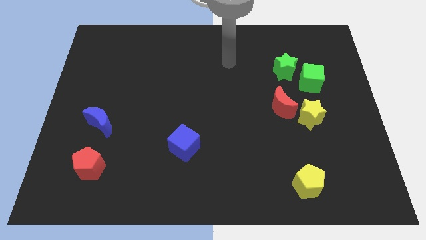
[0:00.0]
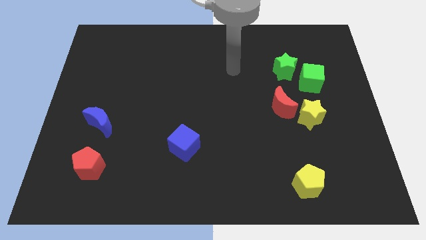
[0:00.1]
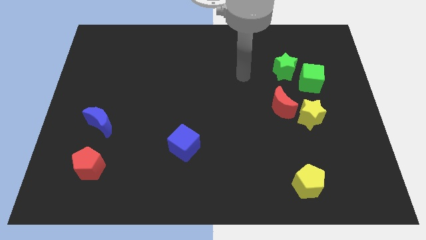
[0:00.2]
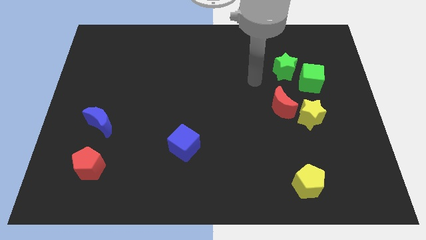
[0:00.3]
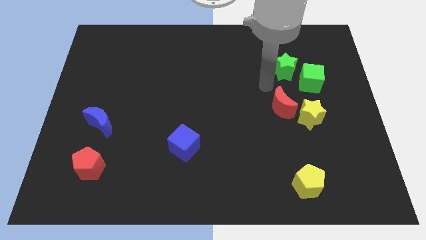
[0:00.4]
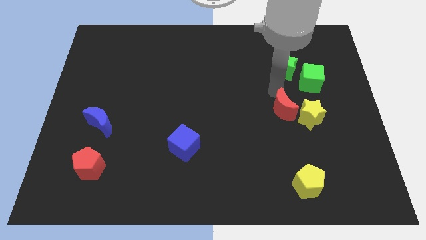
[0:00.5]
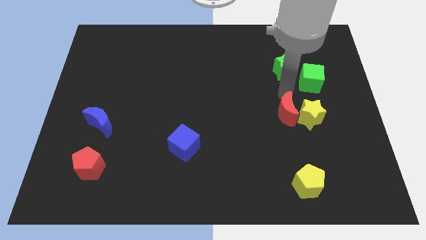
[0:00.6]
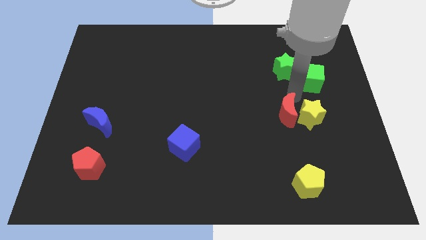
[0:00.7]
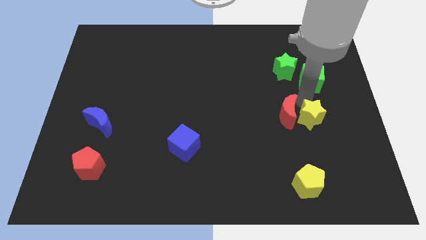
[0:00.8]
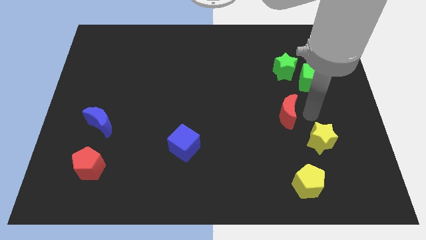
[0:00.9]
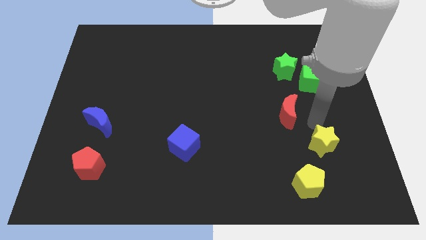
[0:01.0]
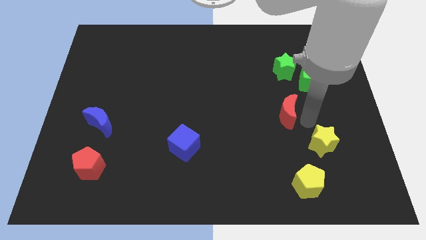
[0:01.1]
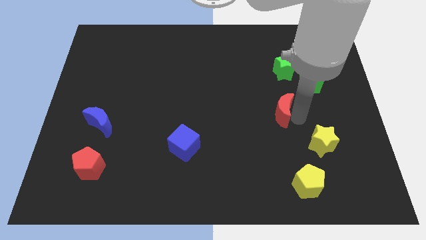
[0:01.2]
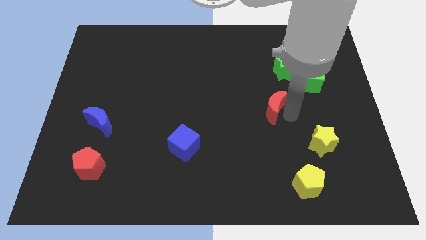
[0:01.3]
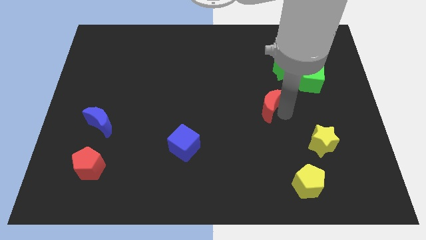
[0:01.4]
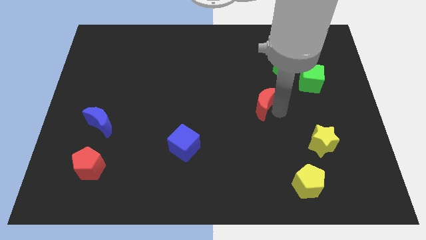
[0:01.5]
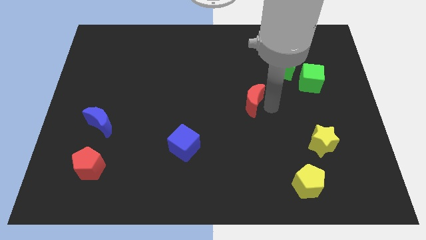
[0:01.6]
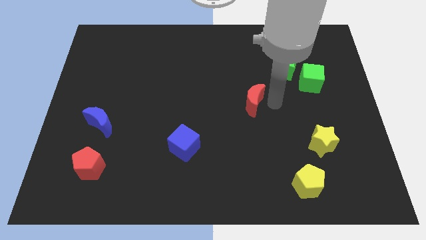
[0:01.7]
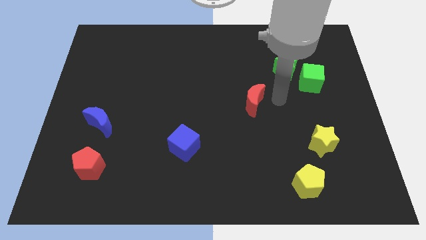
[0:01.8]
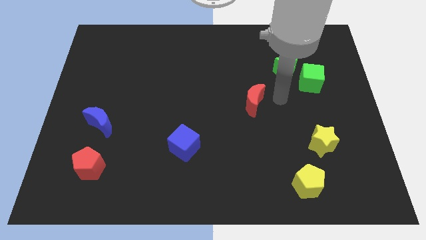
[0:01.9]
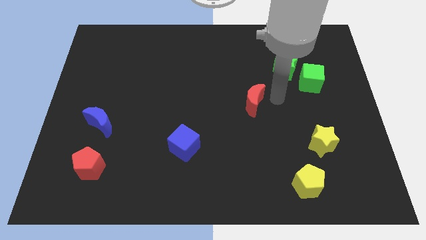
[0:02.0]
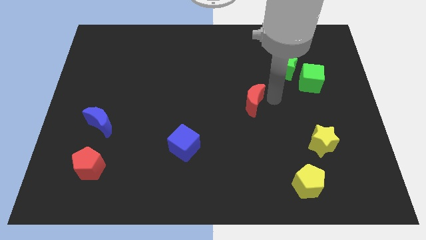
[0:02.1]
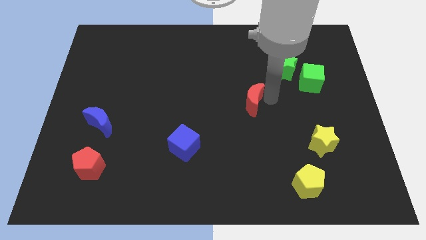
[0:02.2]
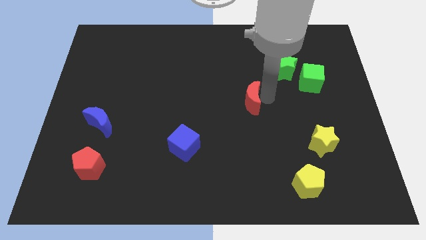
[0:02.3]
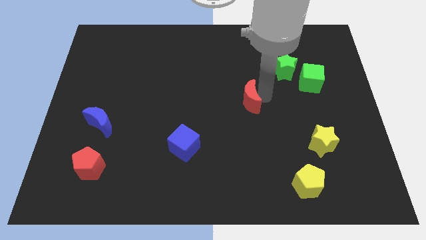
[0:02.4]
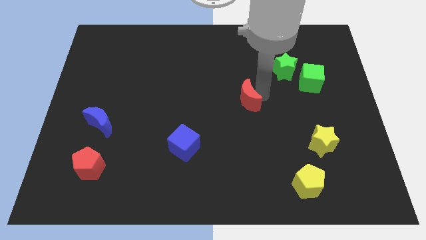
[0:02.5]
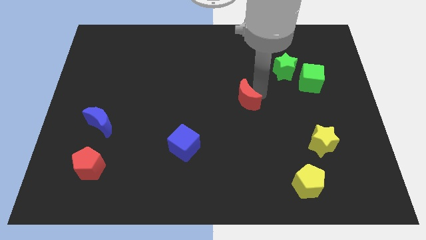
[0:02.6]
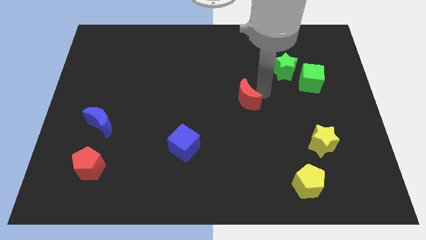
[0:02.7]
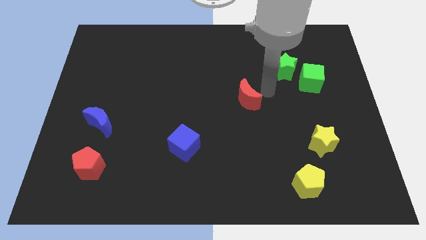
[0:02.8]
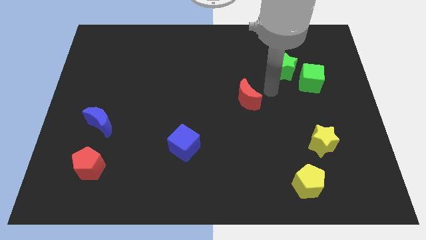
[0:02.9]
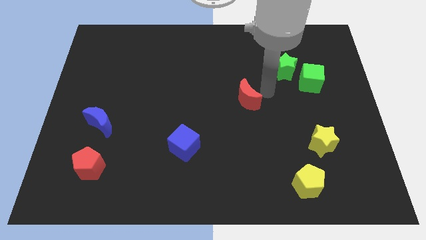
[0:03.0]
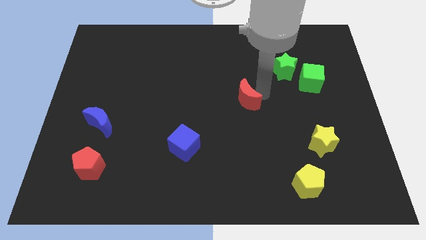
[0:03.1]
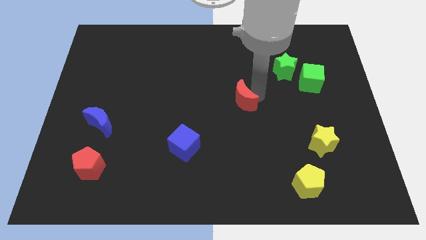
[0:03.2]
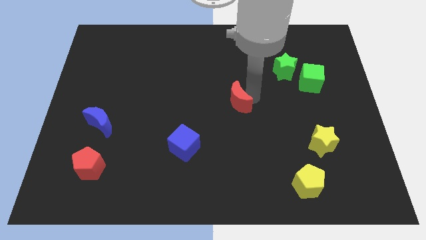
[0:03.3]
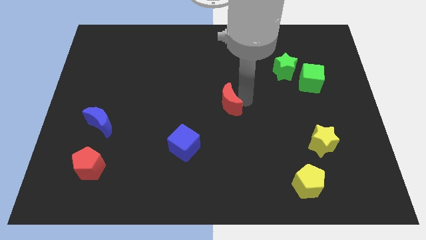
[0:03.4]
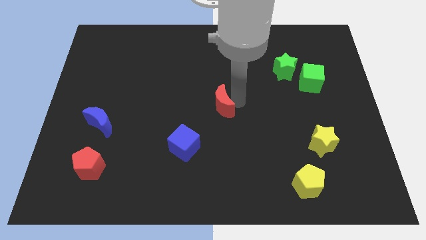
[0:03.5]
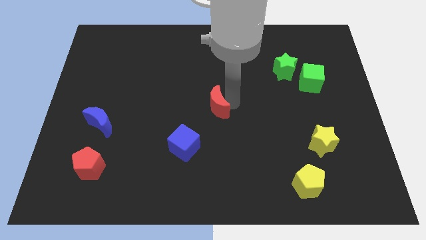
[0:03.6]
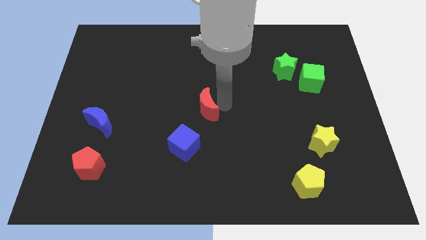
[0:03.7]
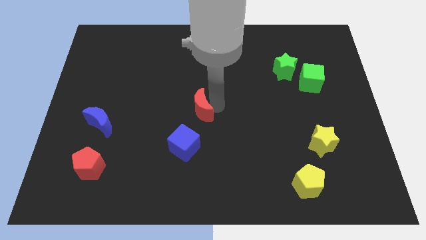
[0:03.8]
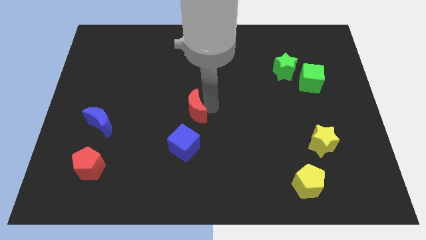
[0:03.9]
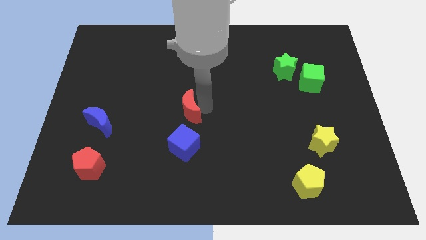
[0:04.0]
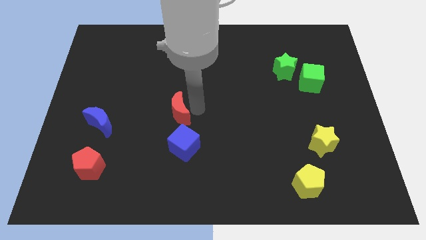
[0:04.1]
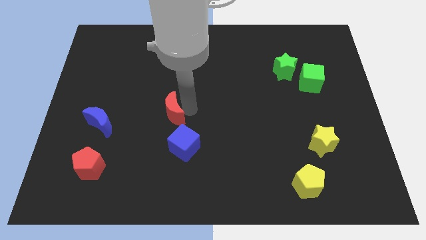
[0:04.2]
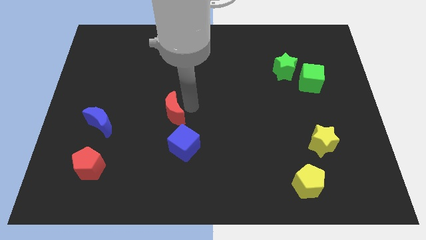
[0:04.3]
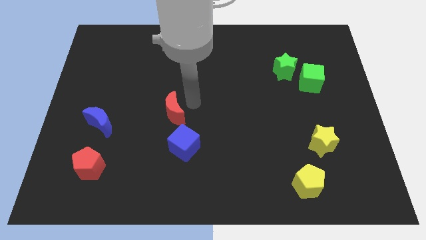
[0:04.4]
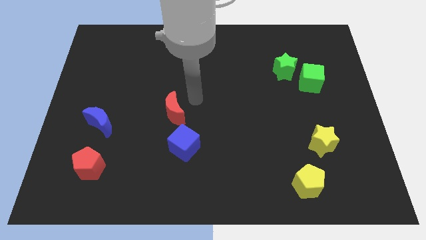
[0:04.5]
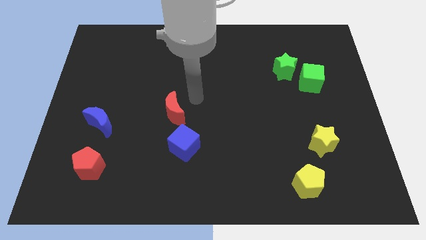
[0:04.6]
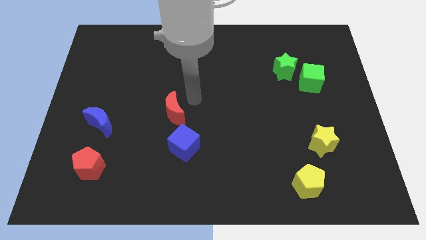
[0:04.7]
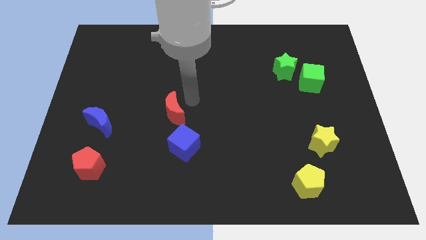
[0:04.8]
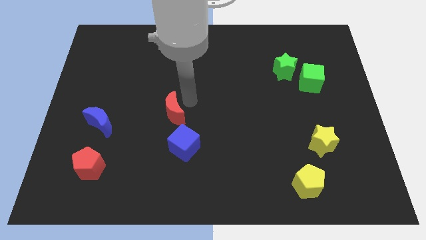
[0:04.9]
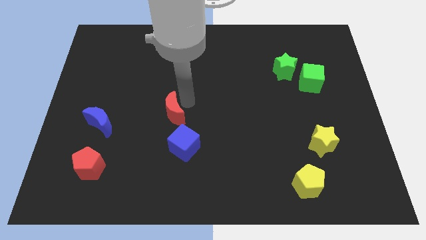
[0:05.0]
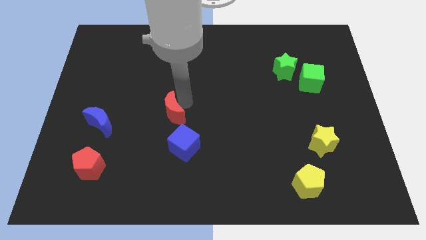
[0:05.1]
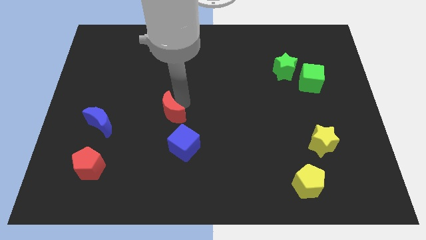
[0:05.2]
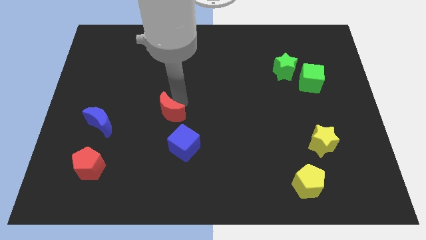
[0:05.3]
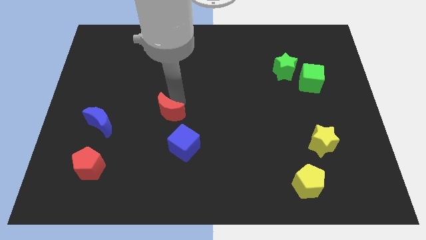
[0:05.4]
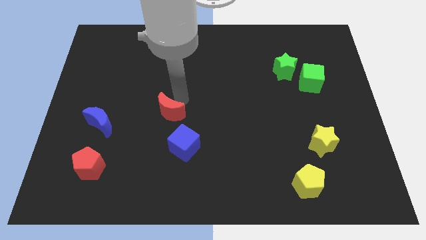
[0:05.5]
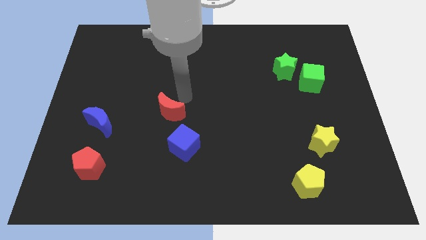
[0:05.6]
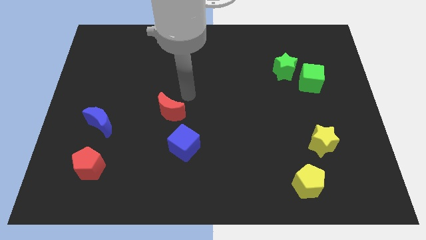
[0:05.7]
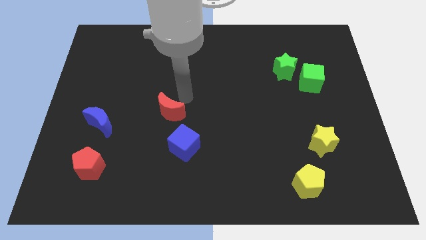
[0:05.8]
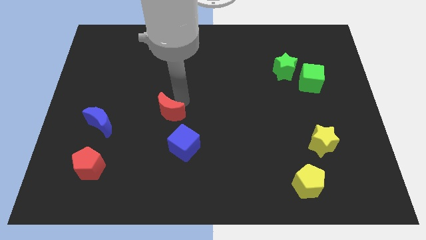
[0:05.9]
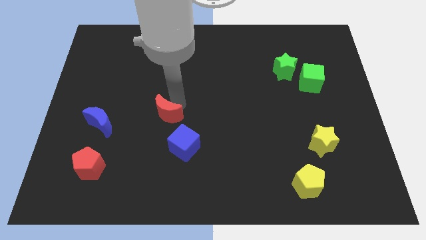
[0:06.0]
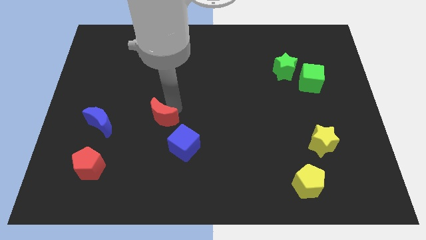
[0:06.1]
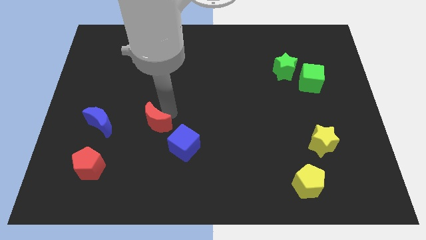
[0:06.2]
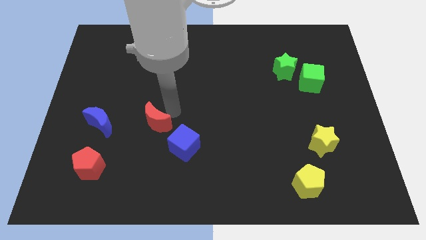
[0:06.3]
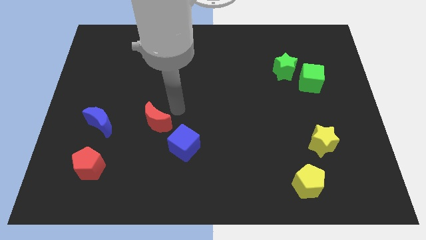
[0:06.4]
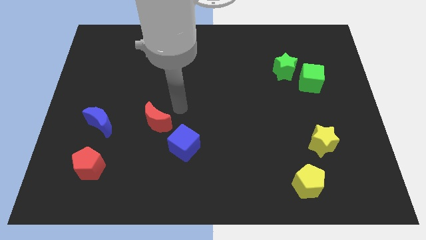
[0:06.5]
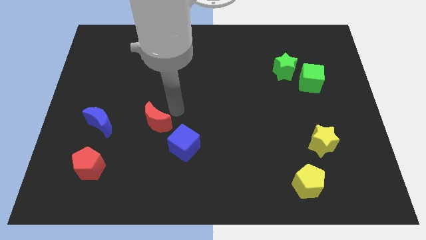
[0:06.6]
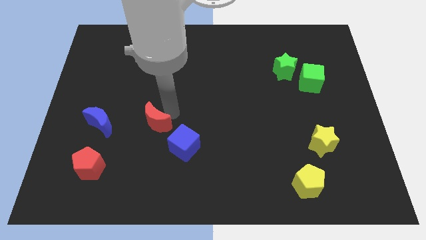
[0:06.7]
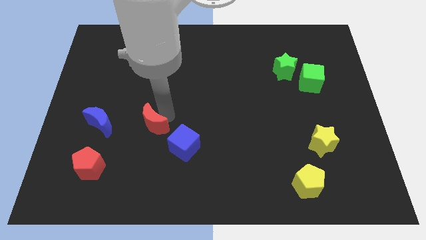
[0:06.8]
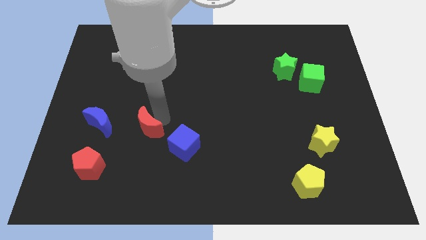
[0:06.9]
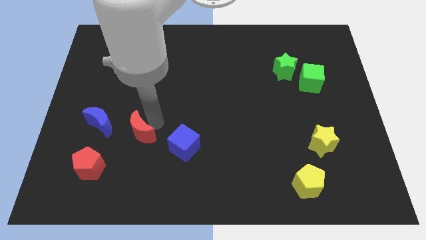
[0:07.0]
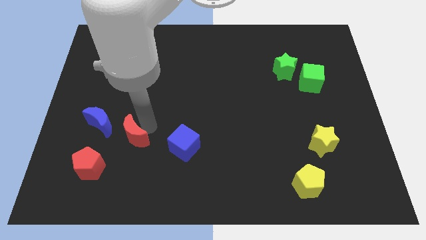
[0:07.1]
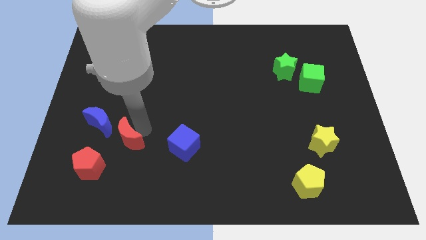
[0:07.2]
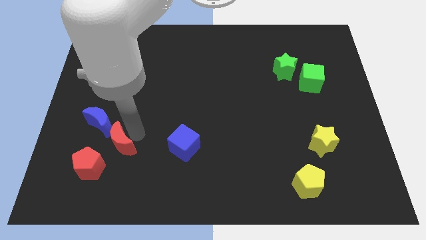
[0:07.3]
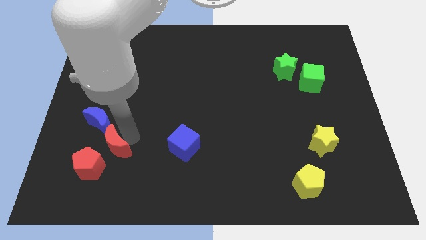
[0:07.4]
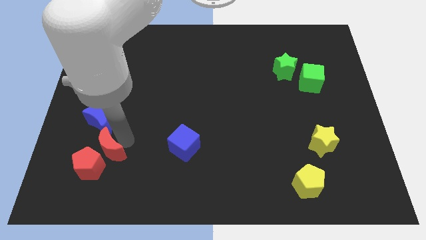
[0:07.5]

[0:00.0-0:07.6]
move the red moon to the red pentagon
